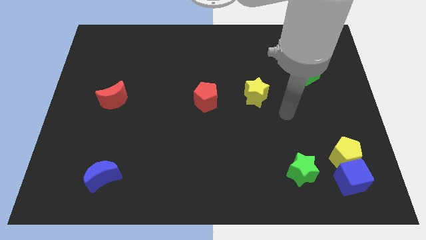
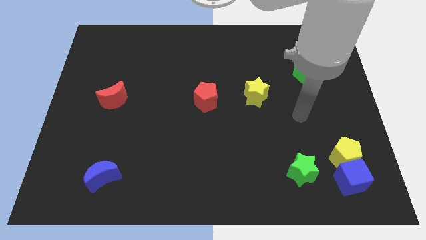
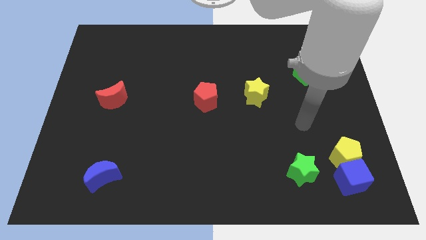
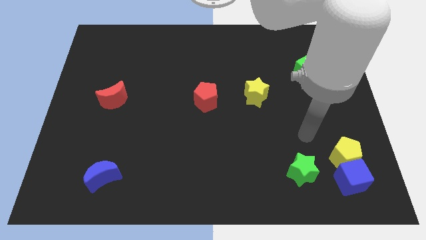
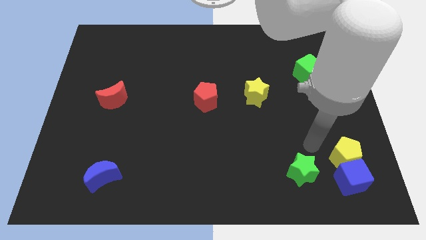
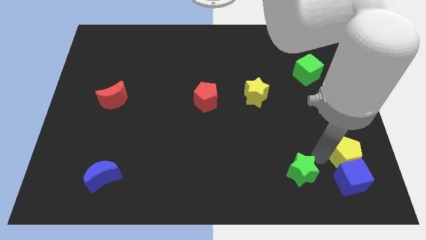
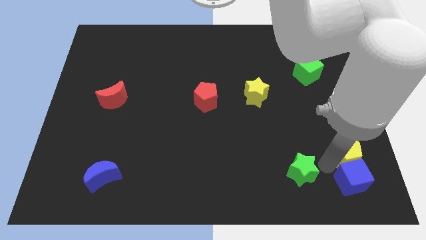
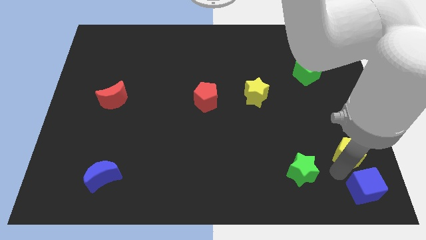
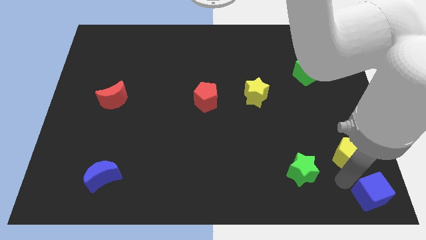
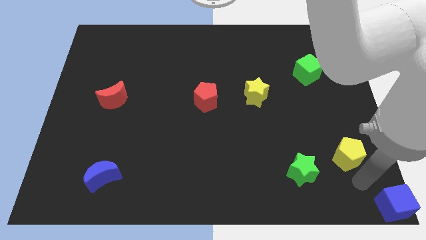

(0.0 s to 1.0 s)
separate the yellow pentagon from the blue cube

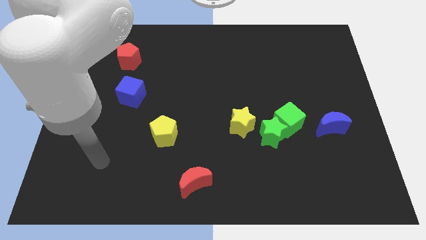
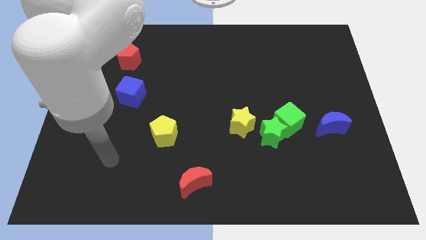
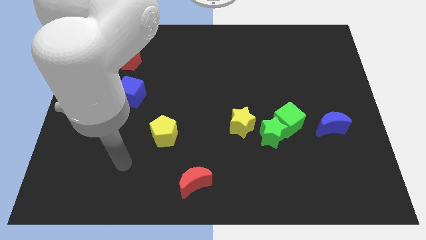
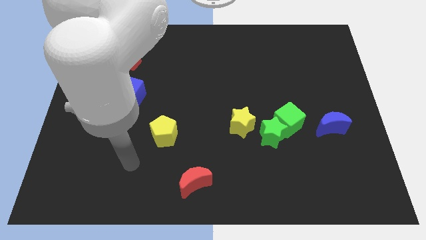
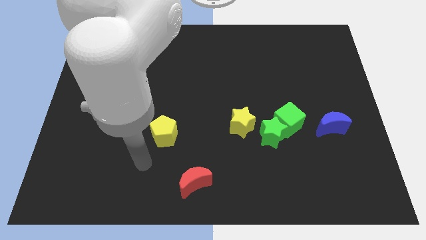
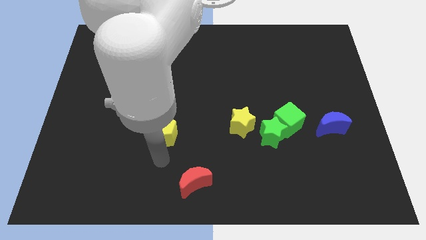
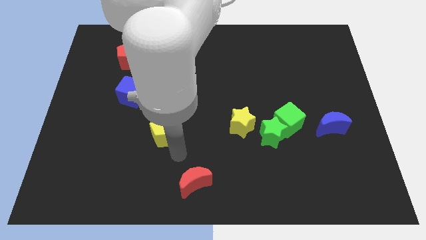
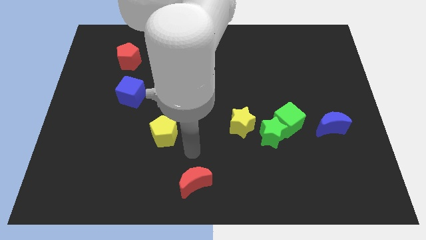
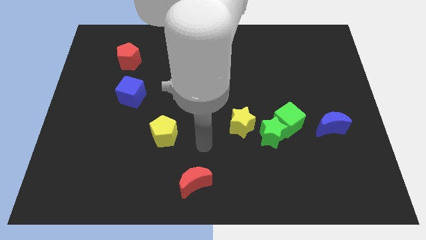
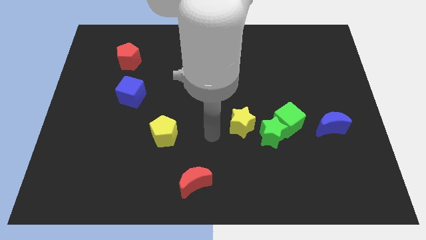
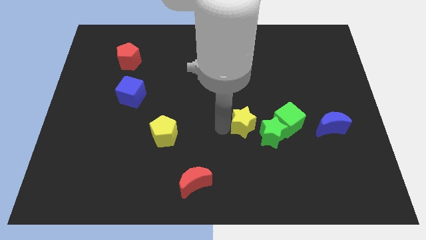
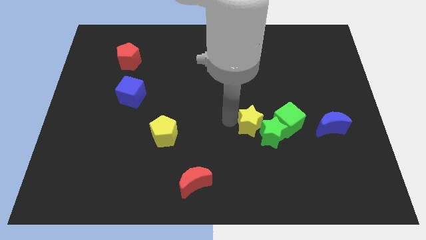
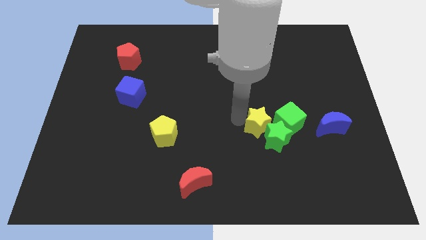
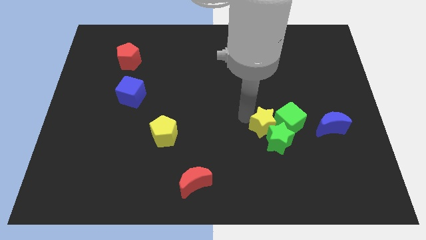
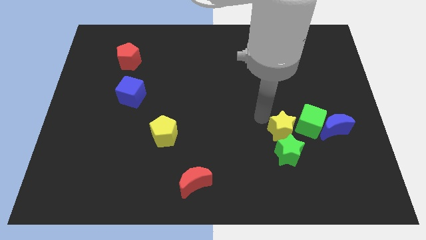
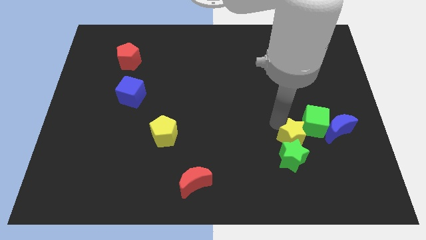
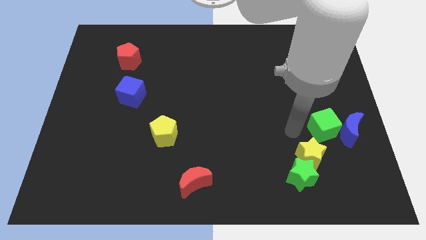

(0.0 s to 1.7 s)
move the green star away from the green cube and yellow star

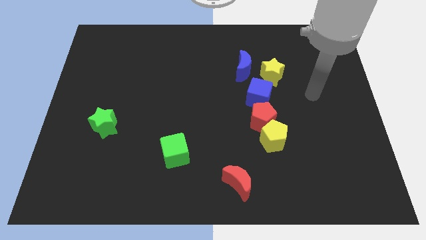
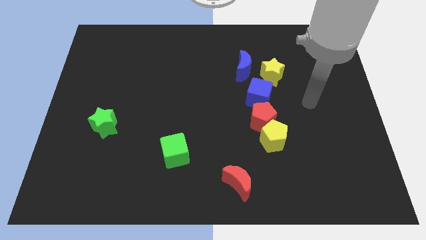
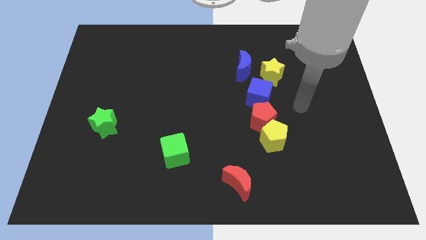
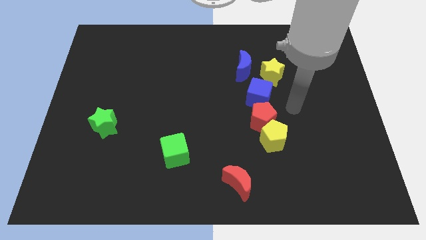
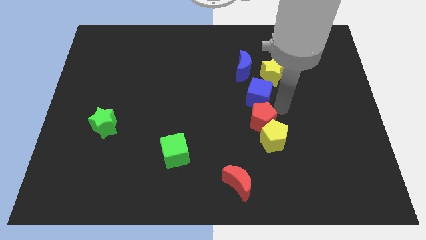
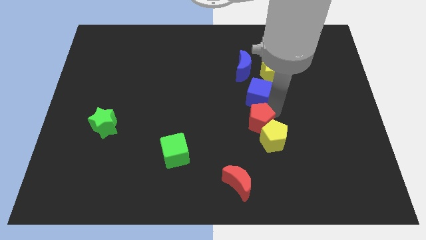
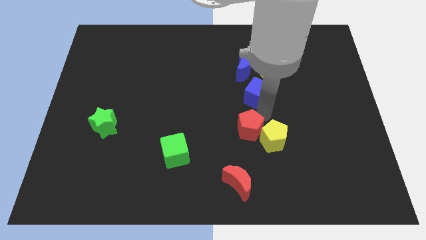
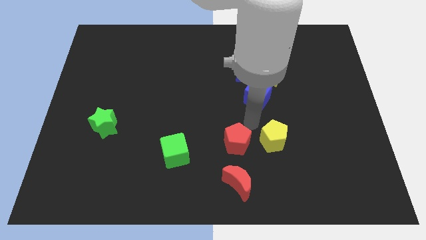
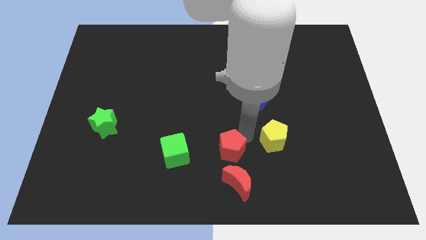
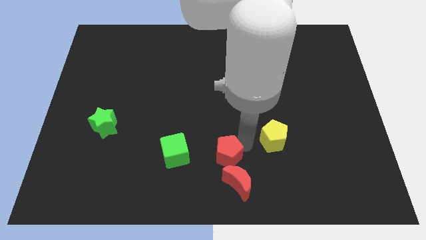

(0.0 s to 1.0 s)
move the yellow pentagon away from the red pentagon

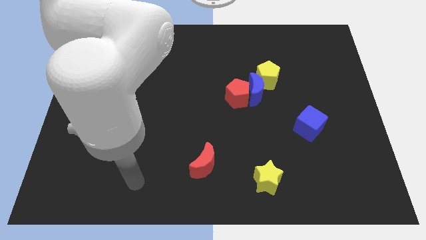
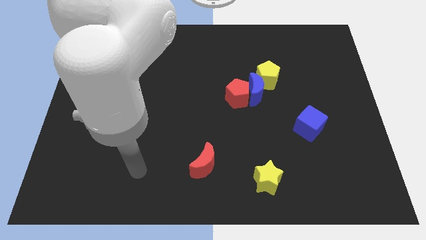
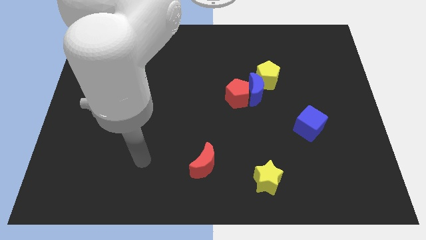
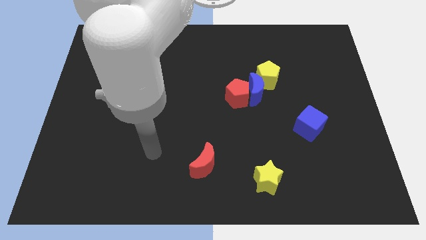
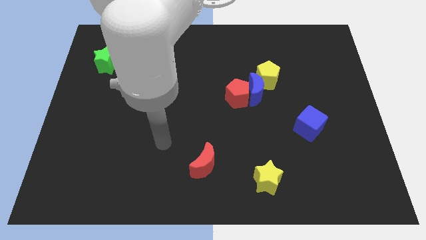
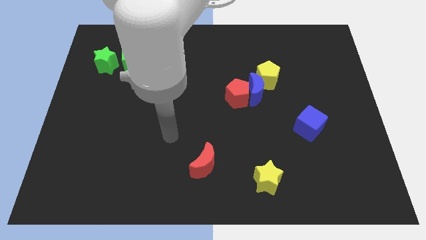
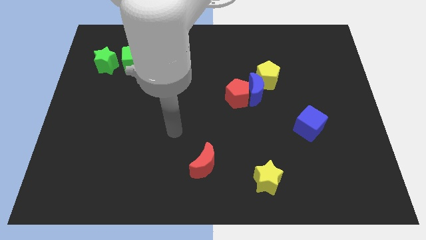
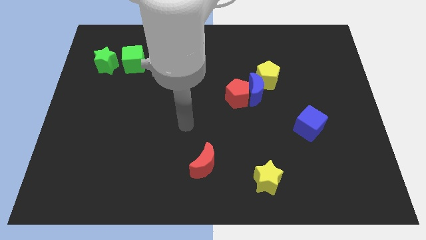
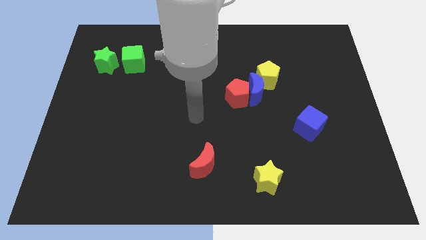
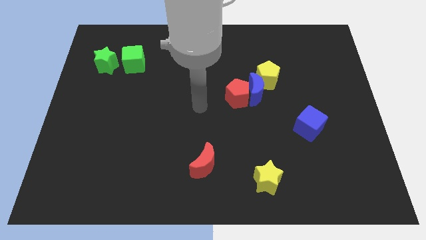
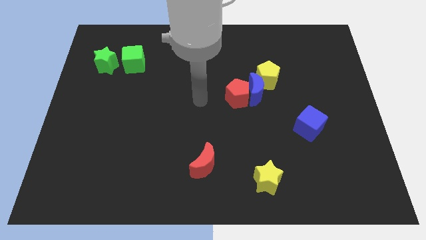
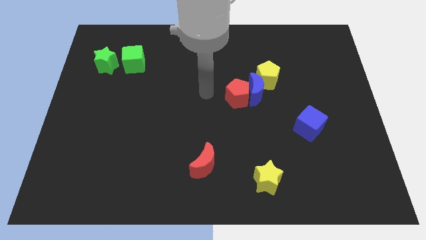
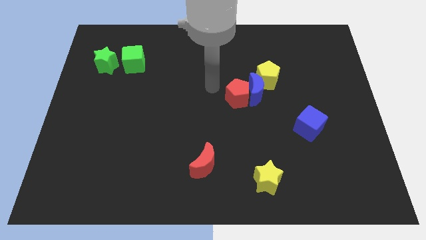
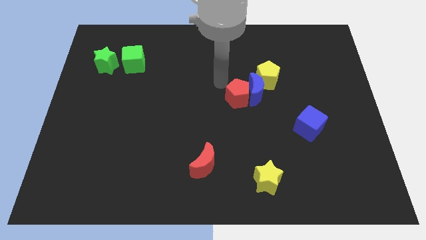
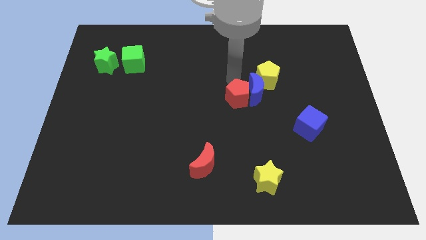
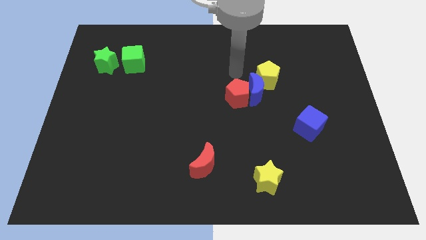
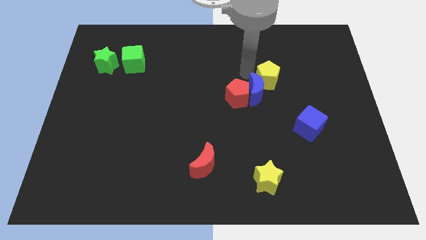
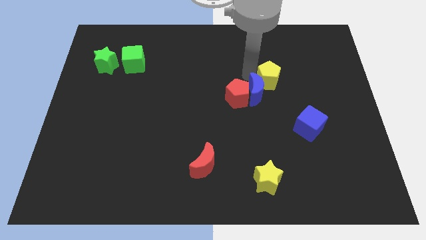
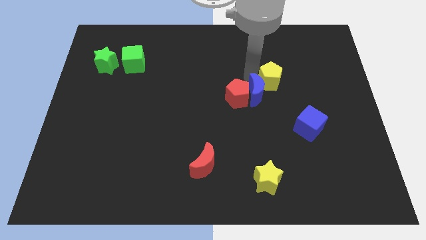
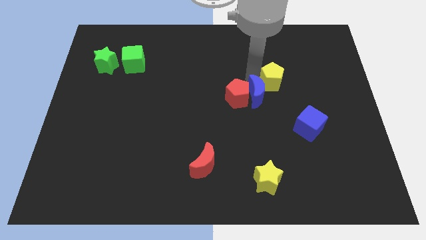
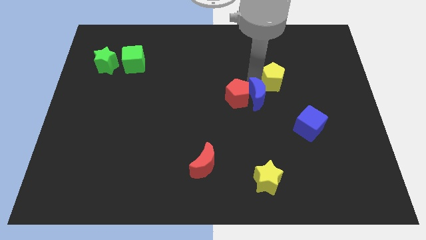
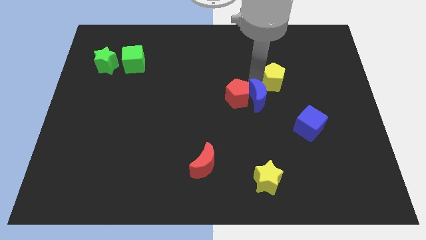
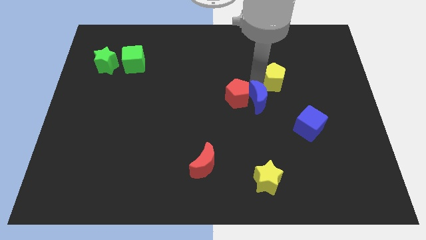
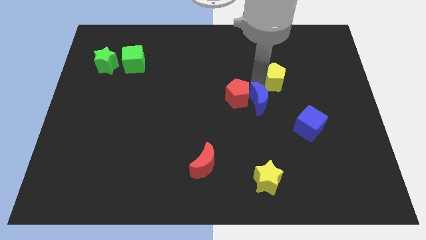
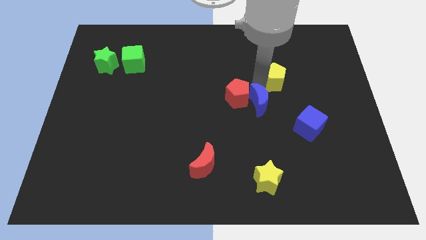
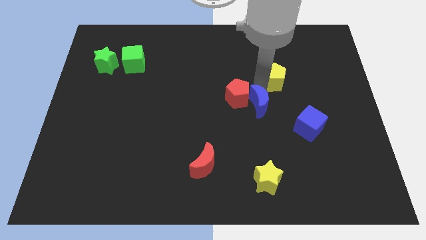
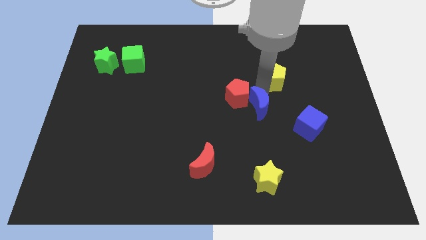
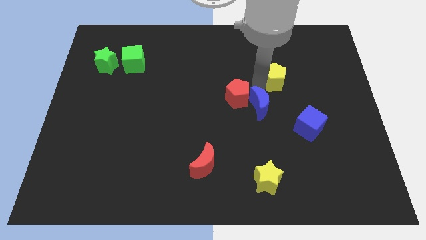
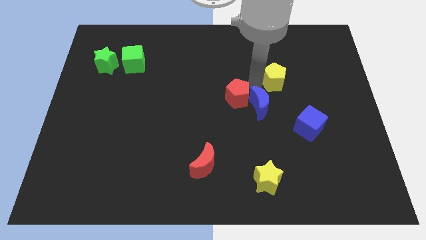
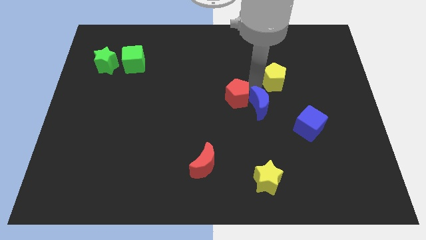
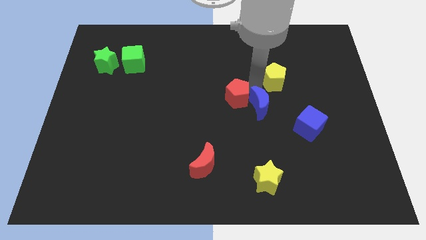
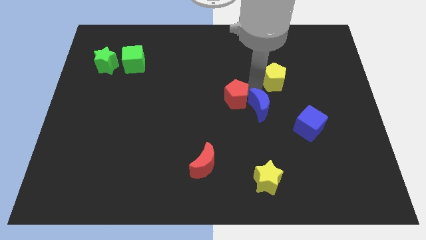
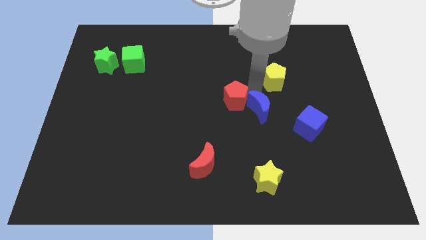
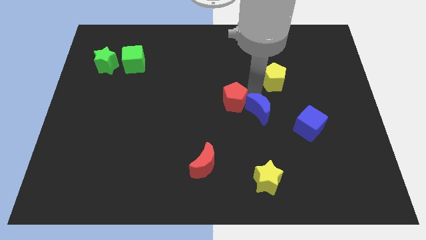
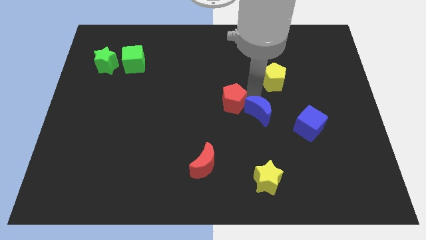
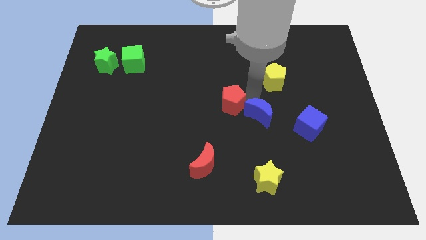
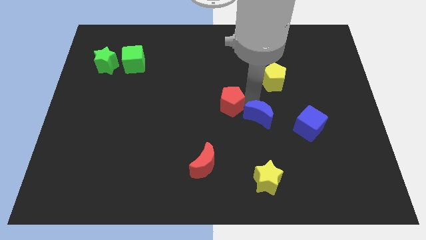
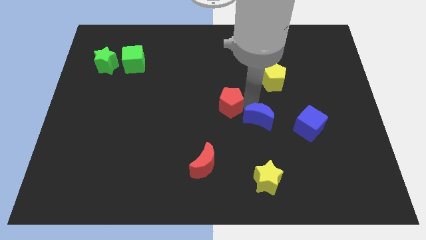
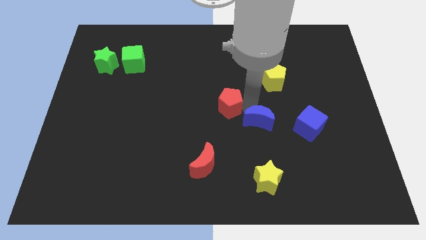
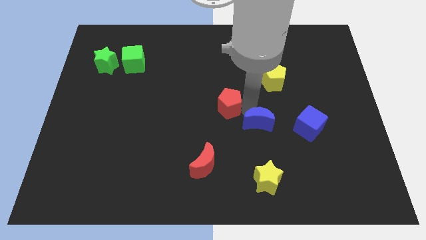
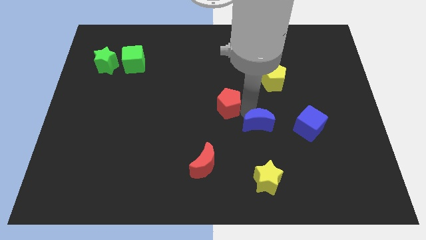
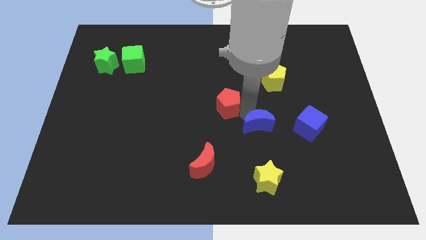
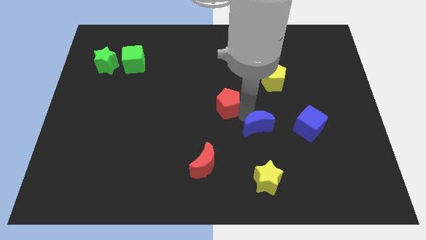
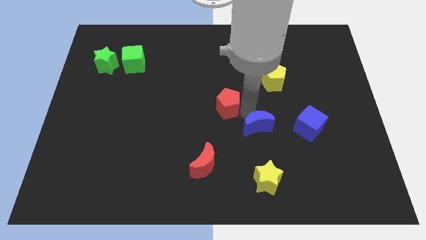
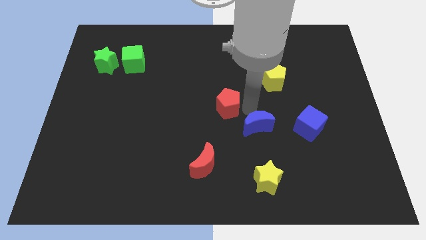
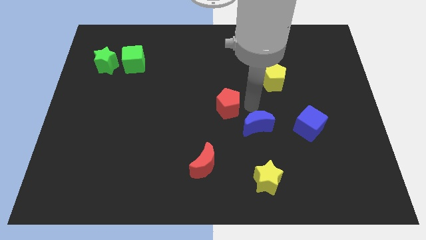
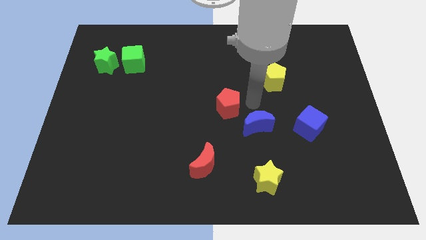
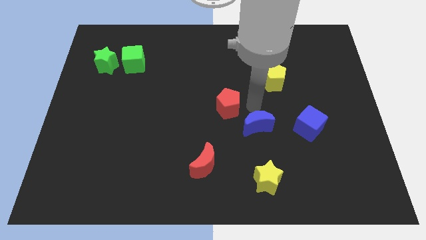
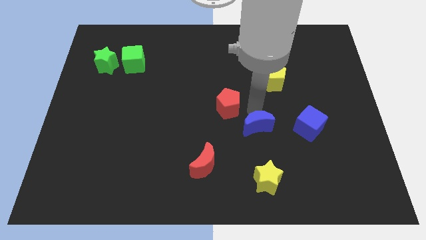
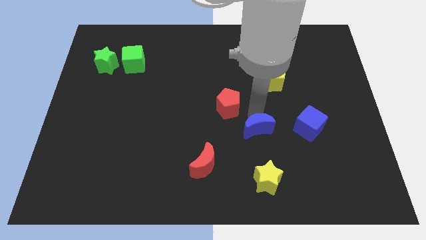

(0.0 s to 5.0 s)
separate the blue moon from the red pentagon and yellow pentagon

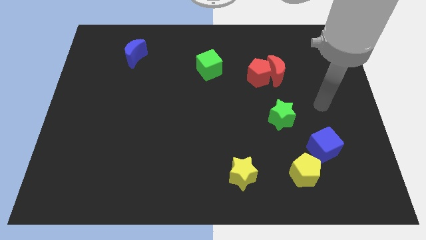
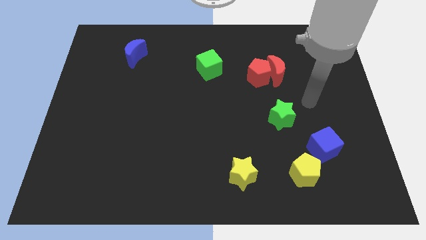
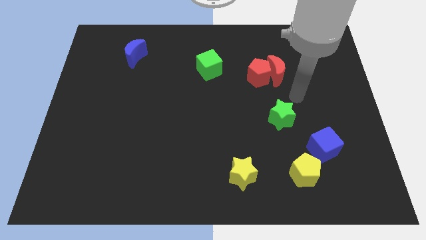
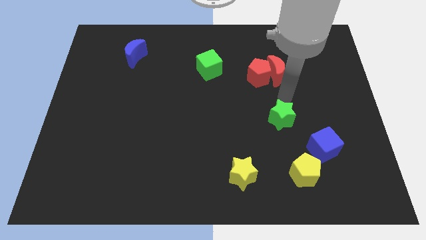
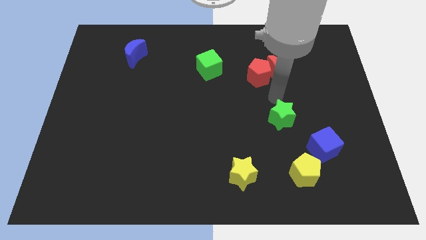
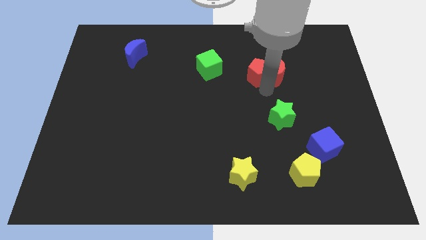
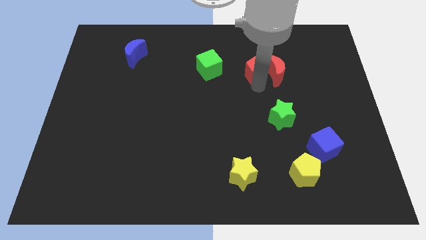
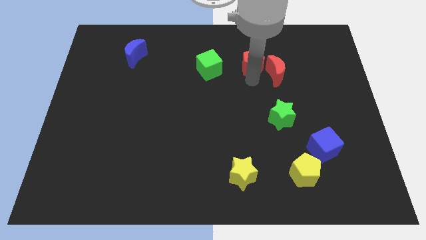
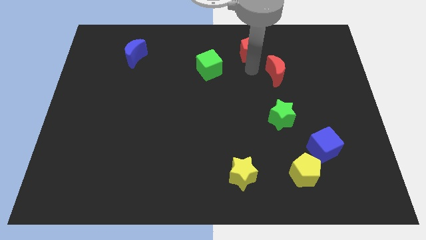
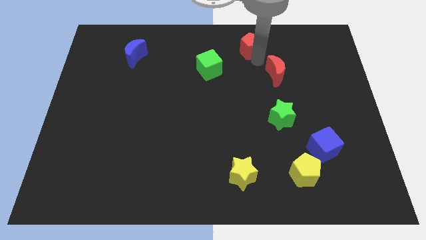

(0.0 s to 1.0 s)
pull the red moon apart from the red pentagon
